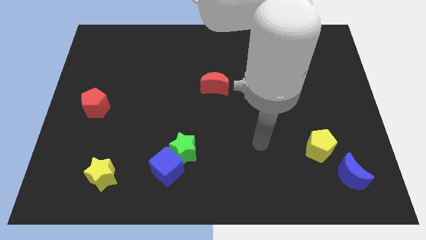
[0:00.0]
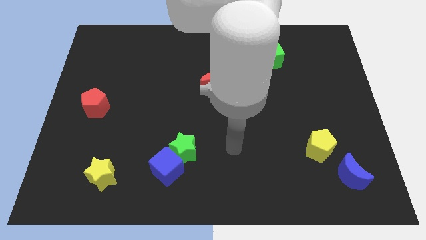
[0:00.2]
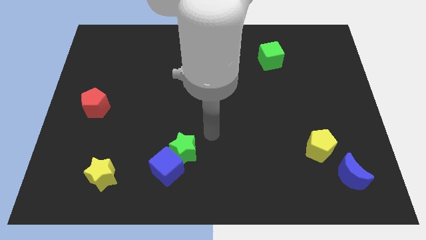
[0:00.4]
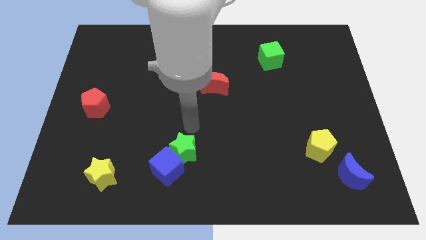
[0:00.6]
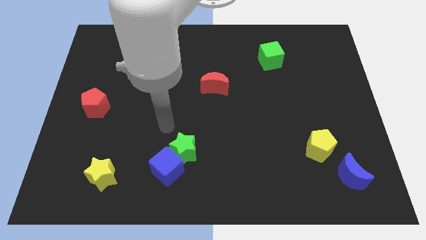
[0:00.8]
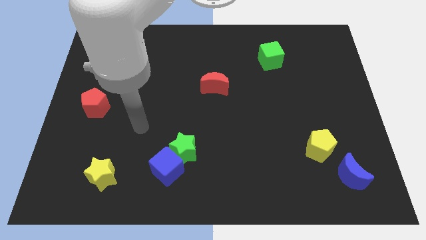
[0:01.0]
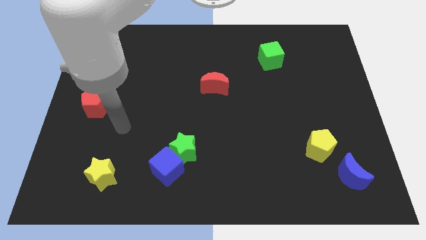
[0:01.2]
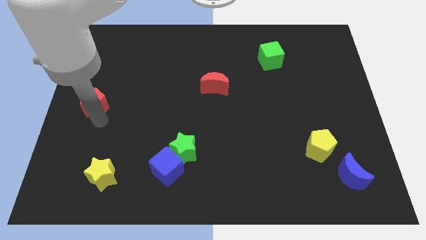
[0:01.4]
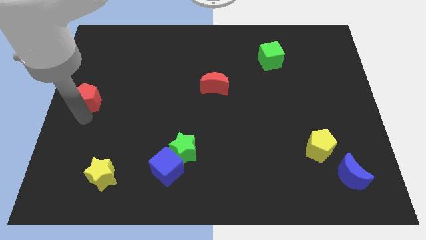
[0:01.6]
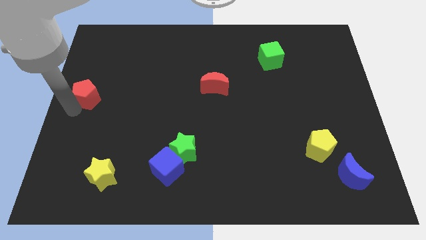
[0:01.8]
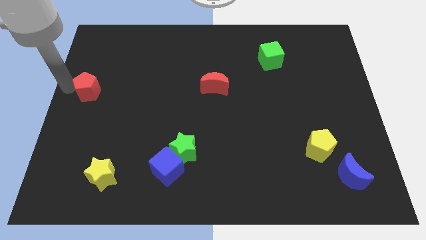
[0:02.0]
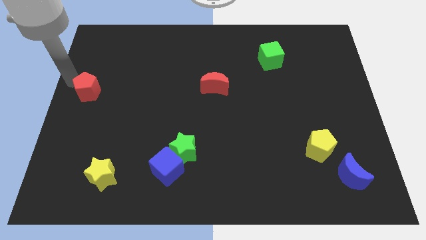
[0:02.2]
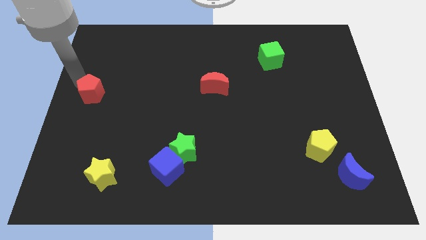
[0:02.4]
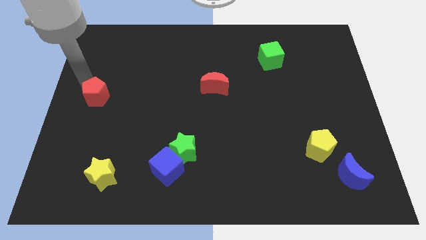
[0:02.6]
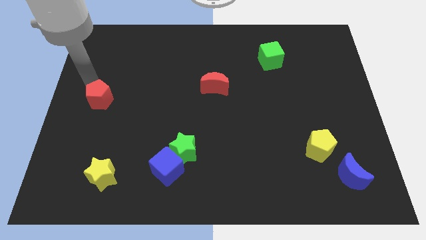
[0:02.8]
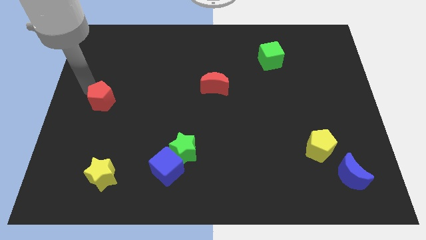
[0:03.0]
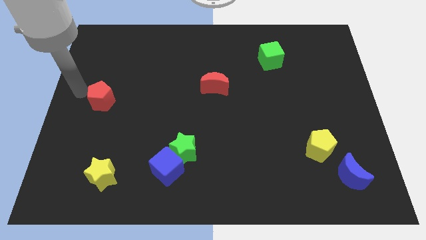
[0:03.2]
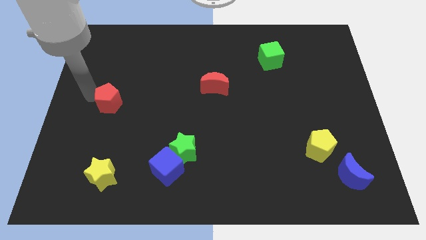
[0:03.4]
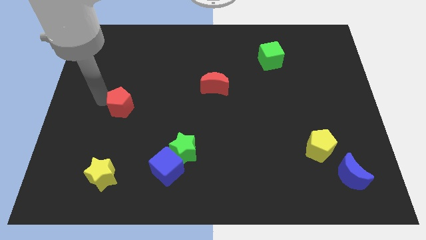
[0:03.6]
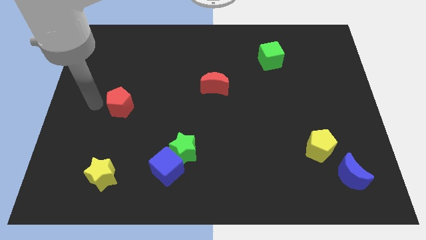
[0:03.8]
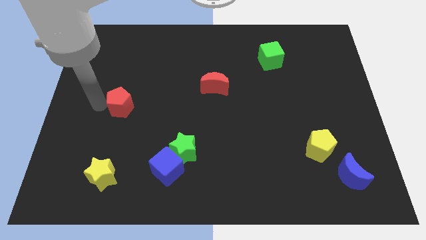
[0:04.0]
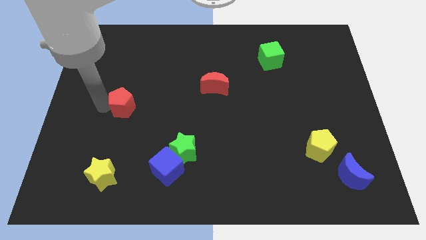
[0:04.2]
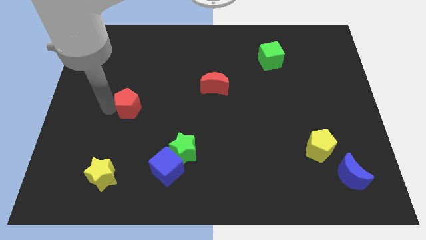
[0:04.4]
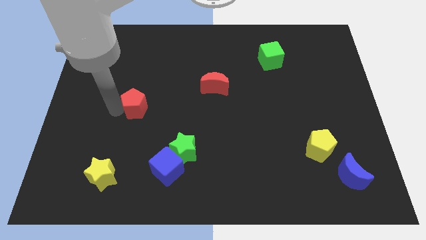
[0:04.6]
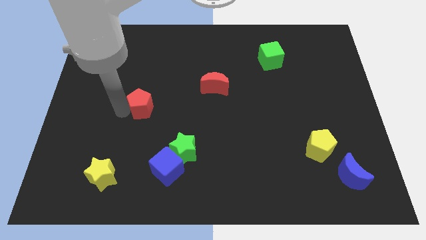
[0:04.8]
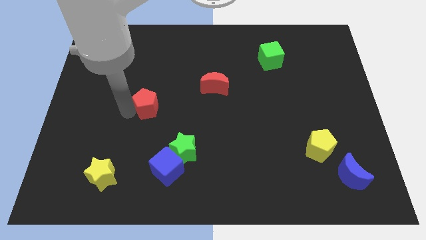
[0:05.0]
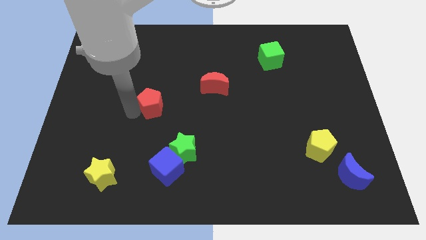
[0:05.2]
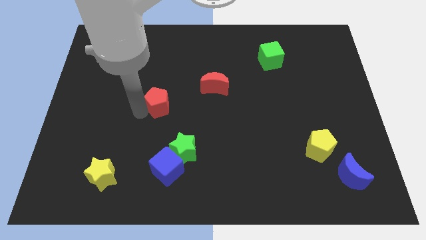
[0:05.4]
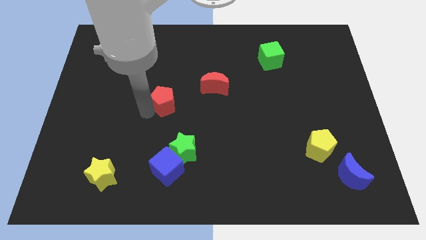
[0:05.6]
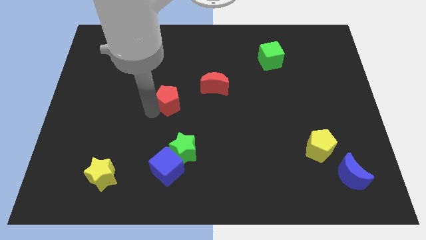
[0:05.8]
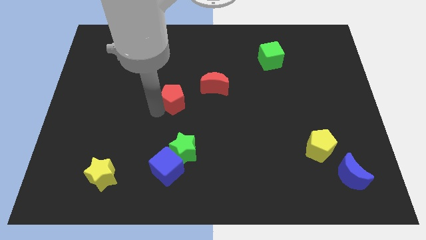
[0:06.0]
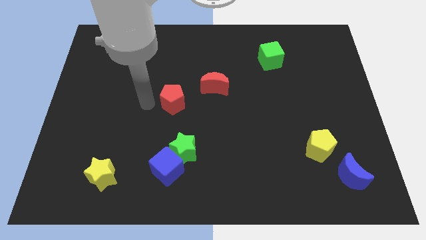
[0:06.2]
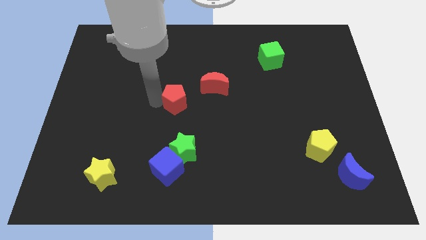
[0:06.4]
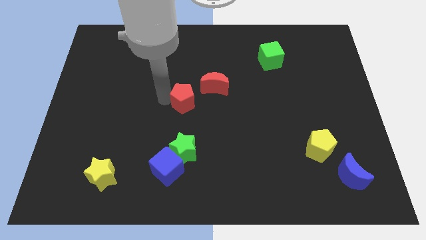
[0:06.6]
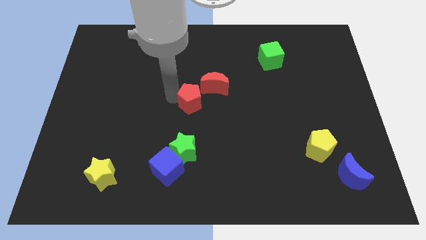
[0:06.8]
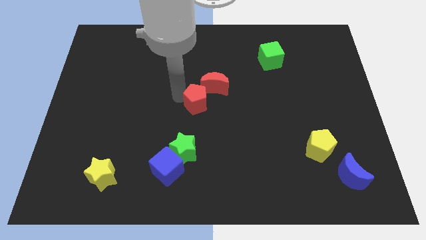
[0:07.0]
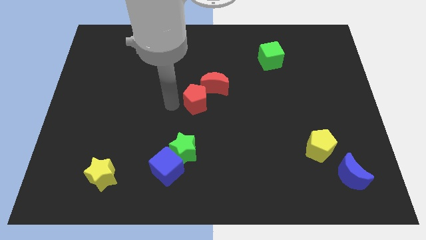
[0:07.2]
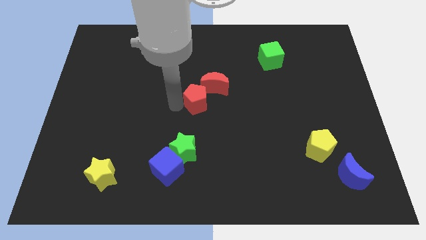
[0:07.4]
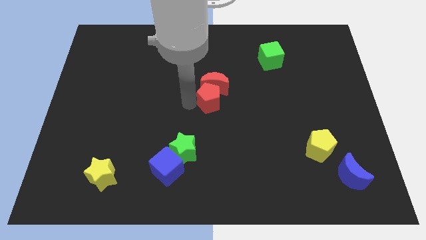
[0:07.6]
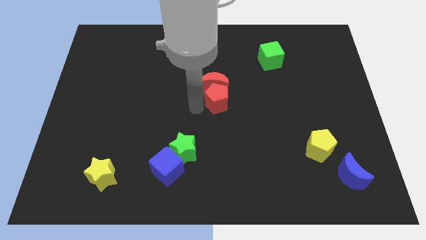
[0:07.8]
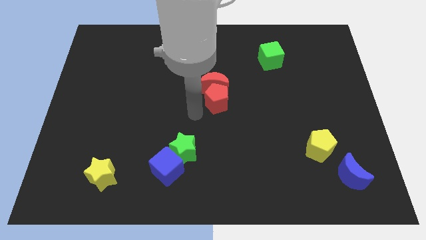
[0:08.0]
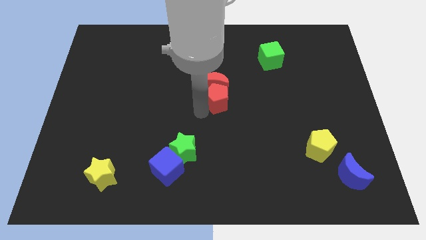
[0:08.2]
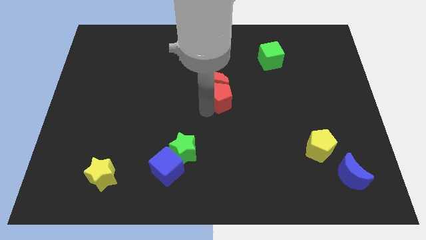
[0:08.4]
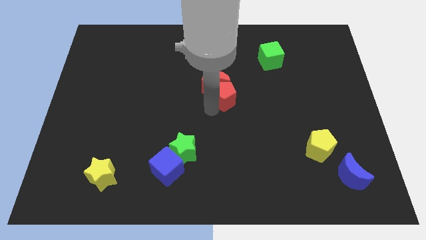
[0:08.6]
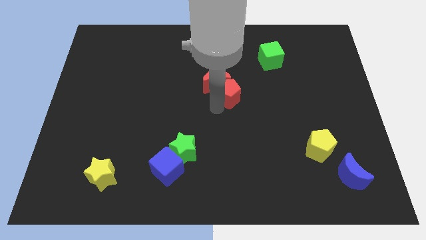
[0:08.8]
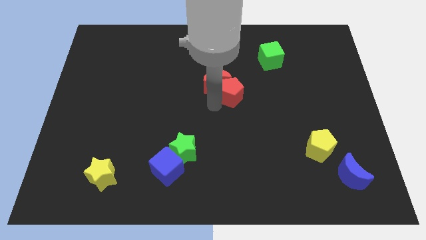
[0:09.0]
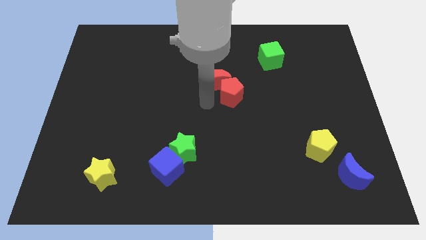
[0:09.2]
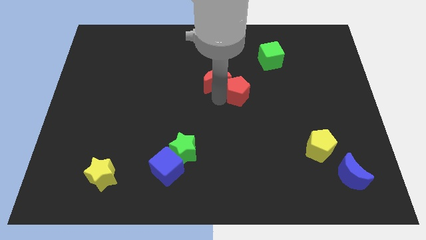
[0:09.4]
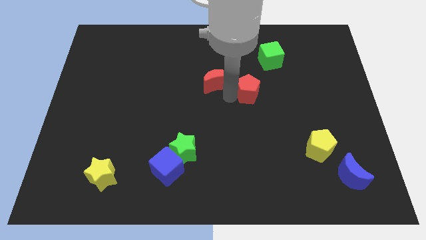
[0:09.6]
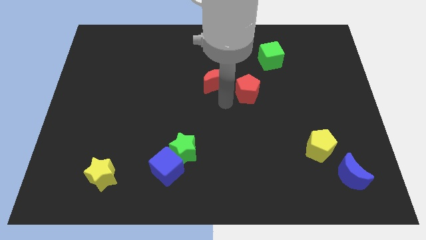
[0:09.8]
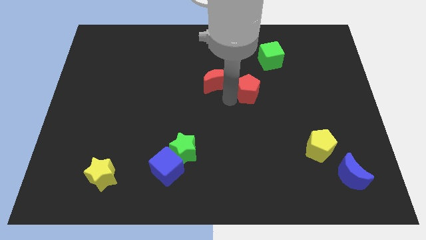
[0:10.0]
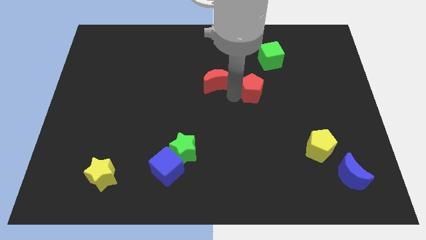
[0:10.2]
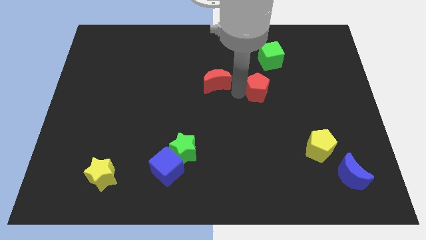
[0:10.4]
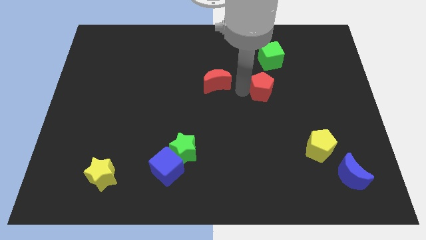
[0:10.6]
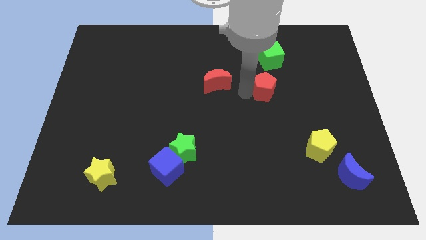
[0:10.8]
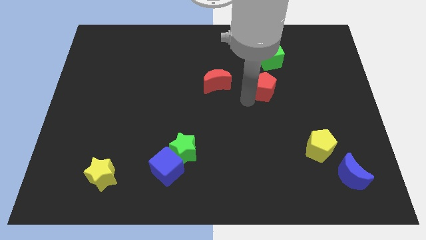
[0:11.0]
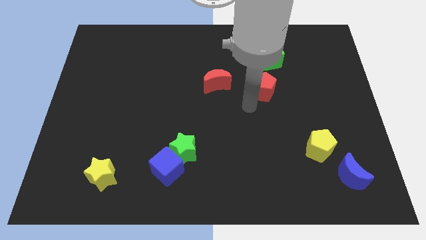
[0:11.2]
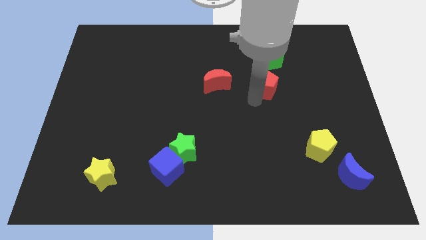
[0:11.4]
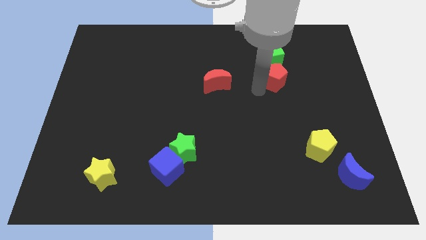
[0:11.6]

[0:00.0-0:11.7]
put the red pentagon to the bottom right of the green cube

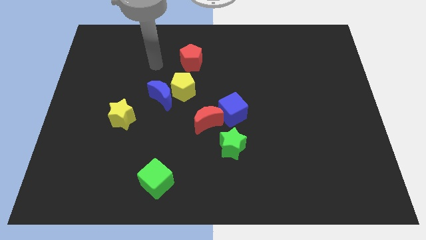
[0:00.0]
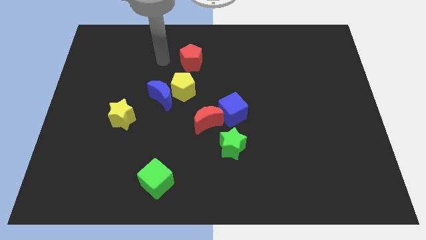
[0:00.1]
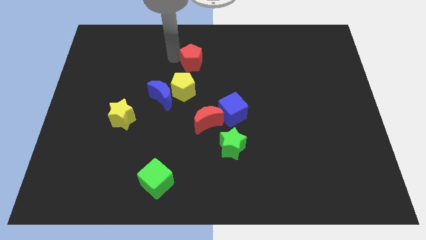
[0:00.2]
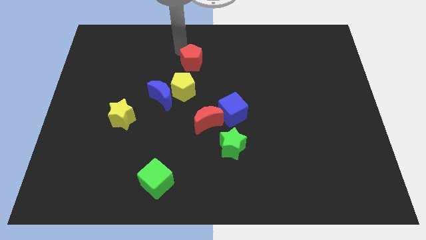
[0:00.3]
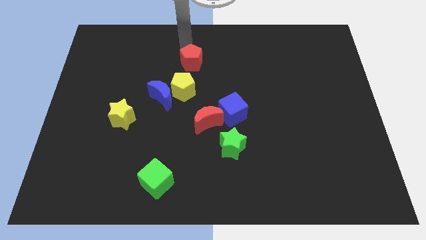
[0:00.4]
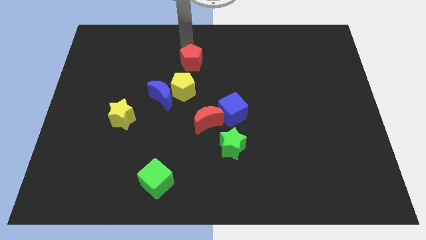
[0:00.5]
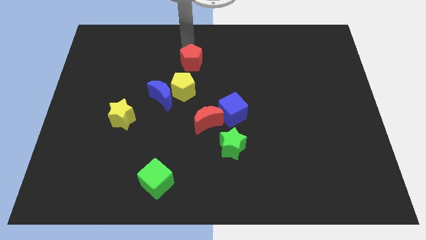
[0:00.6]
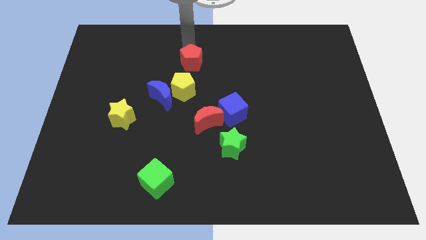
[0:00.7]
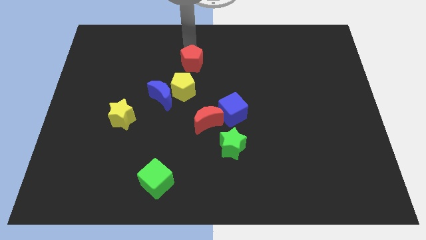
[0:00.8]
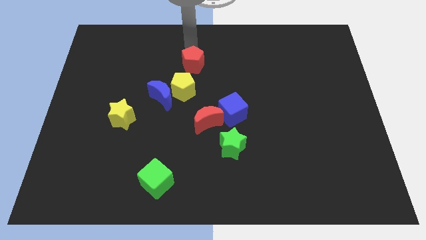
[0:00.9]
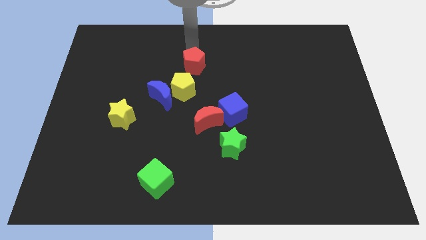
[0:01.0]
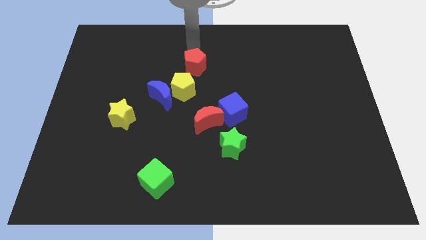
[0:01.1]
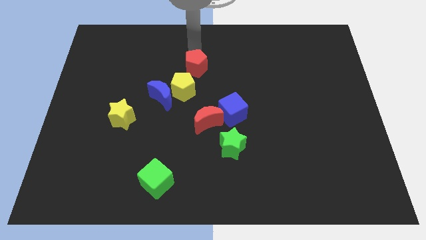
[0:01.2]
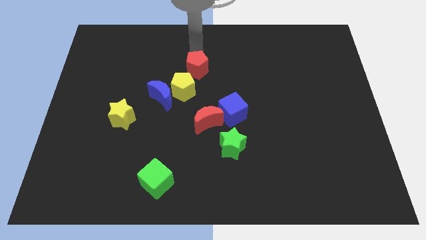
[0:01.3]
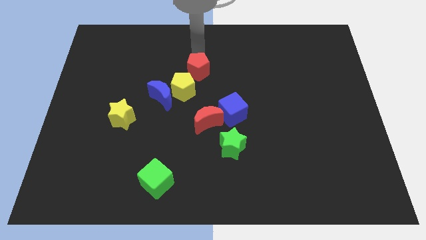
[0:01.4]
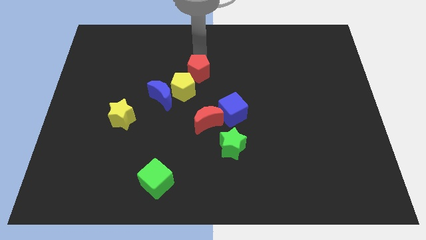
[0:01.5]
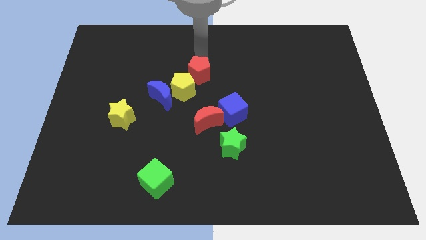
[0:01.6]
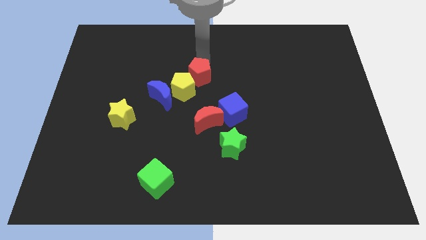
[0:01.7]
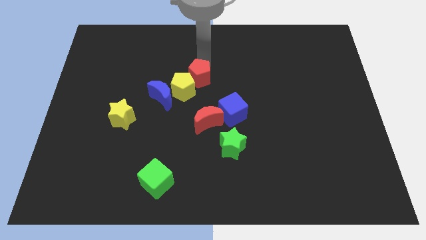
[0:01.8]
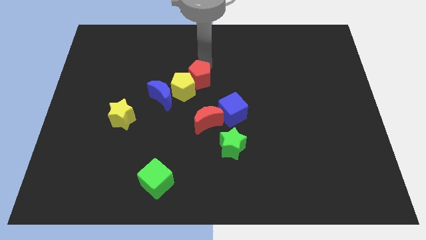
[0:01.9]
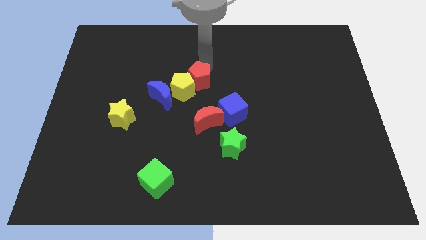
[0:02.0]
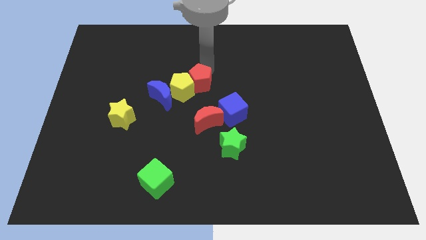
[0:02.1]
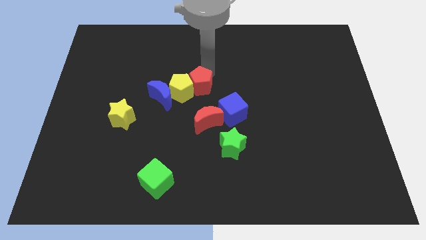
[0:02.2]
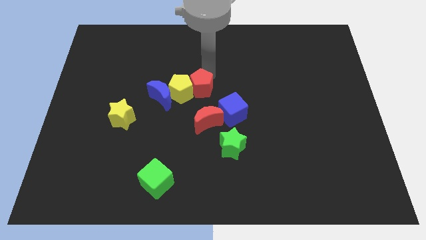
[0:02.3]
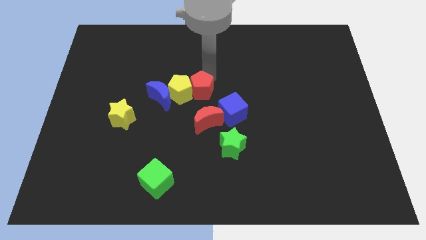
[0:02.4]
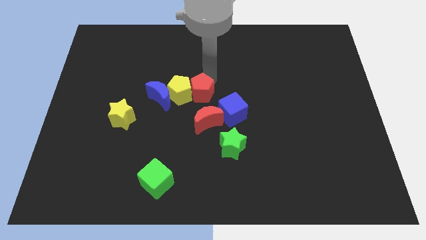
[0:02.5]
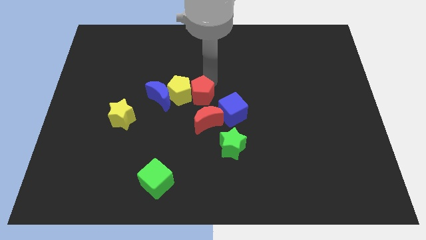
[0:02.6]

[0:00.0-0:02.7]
move the red pentagon diagonally up and to the left of the red moon
